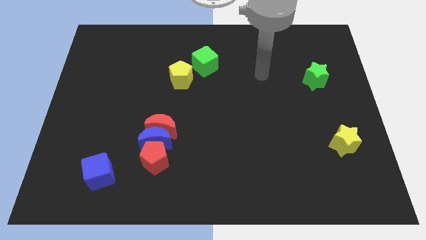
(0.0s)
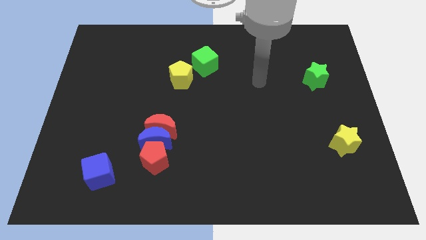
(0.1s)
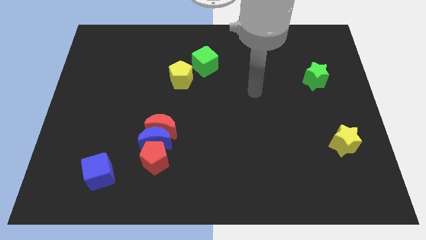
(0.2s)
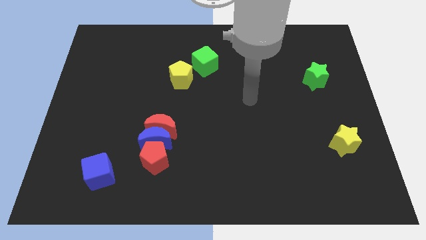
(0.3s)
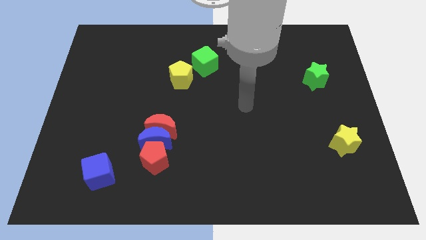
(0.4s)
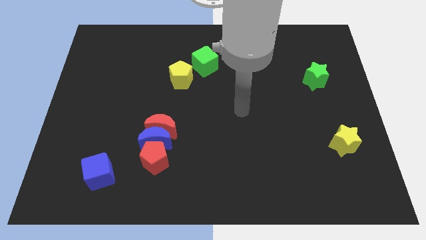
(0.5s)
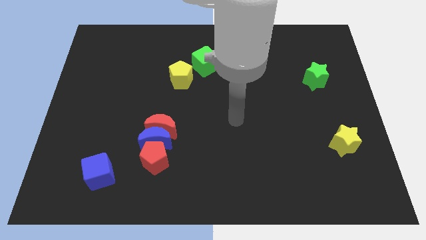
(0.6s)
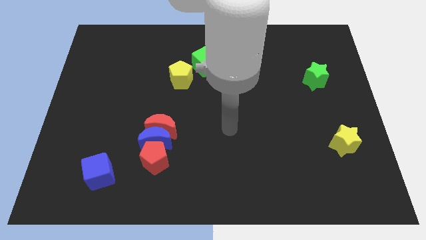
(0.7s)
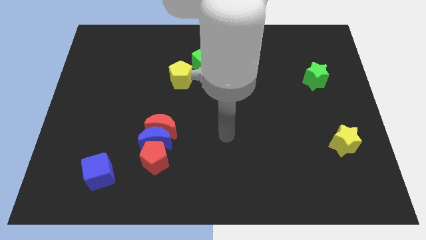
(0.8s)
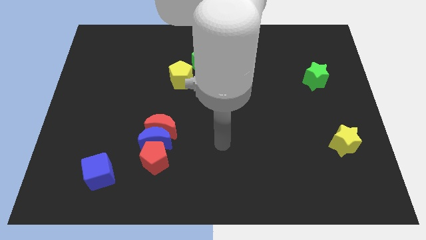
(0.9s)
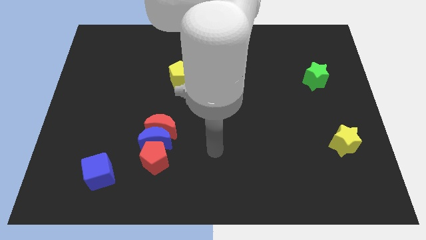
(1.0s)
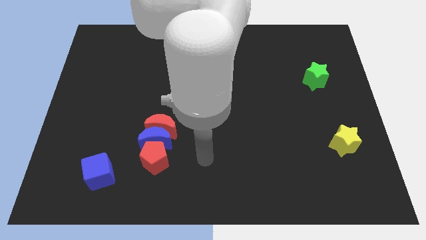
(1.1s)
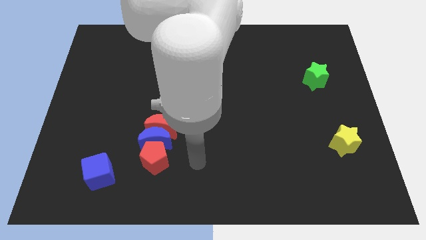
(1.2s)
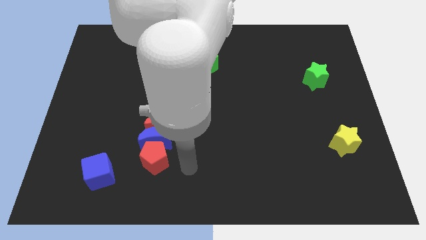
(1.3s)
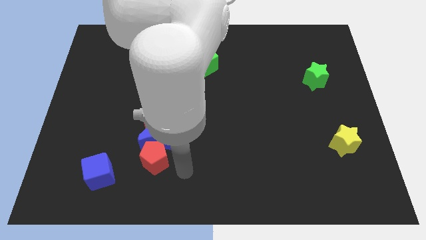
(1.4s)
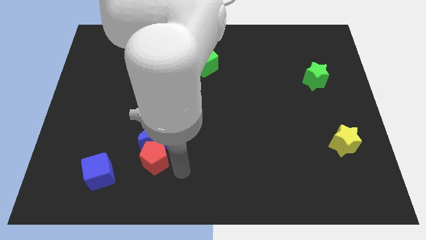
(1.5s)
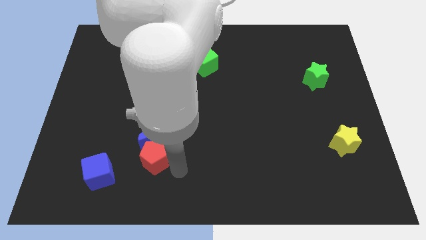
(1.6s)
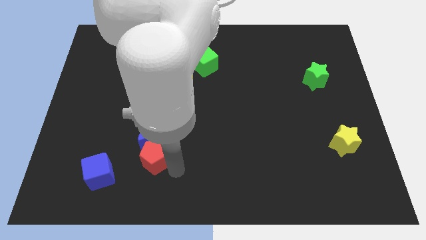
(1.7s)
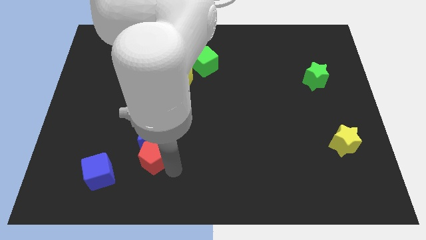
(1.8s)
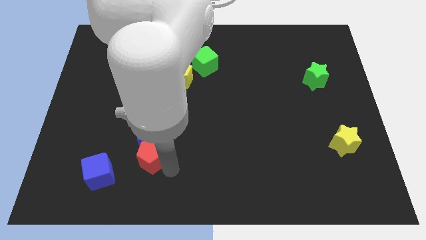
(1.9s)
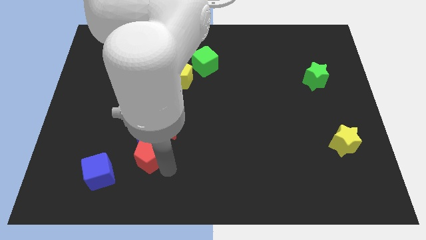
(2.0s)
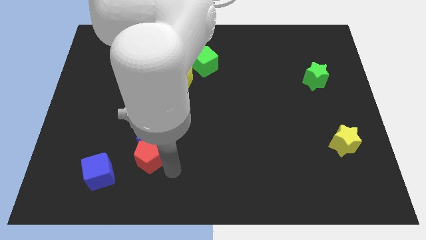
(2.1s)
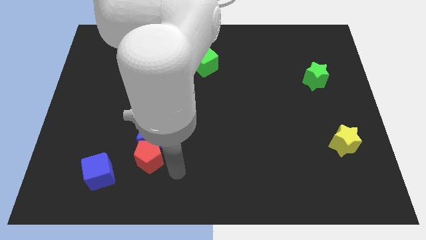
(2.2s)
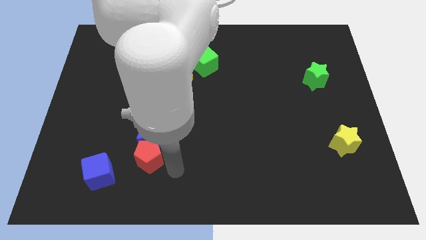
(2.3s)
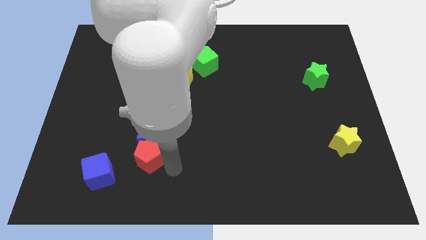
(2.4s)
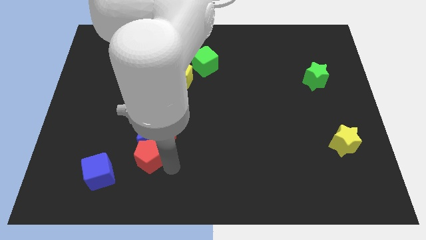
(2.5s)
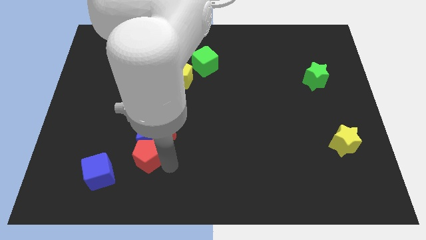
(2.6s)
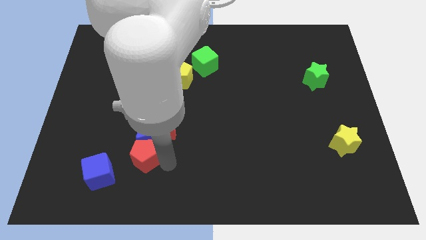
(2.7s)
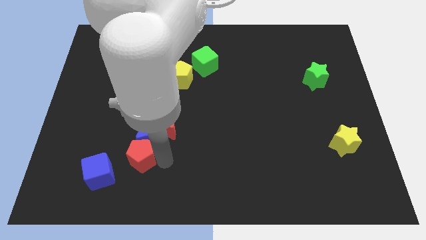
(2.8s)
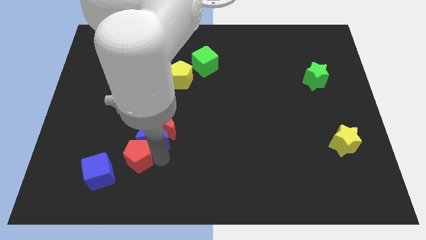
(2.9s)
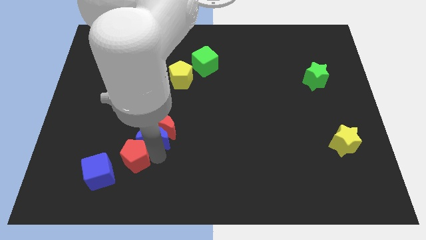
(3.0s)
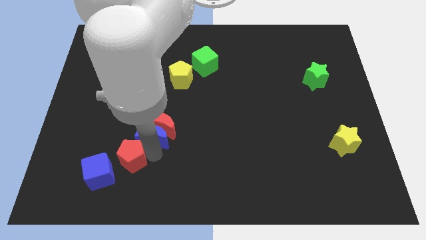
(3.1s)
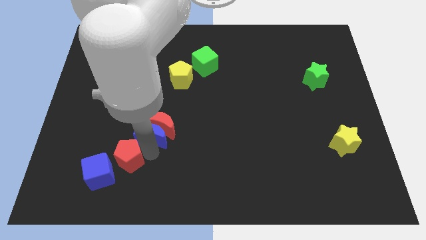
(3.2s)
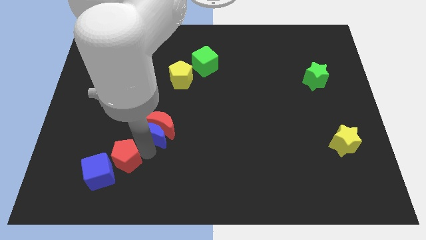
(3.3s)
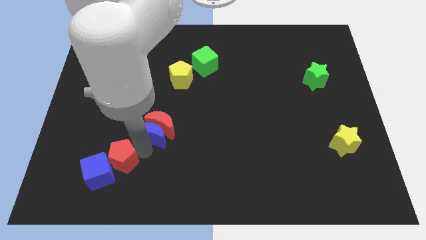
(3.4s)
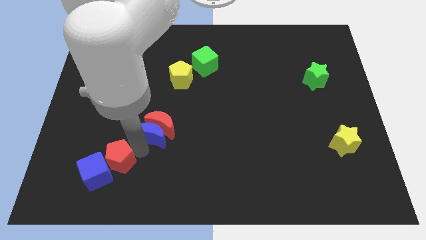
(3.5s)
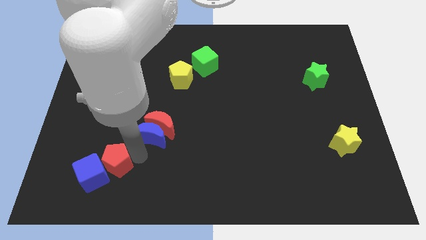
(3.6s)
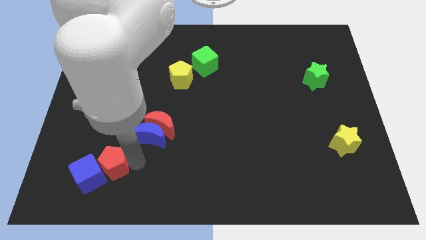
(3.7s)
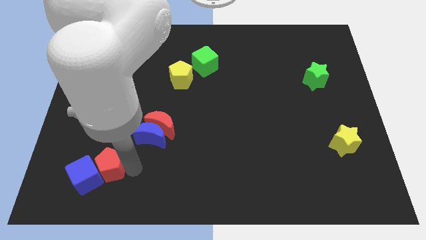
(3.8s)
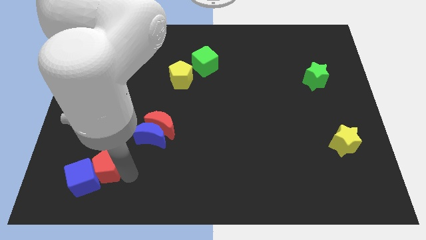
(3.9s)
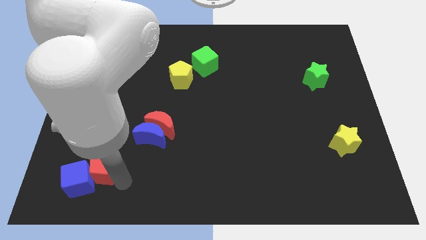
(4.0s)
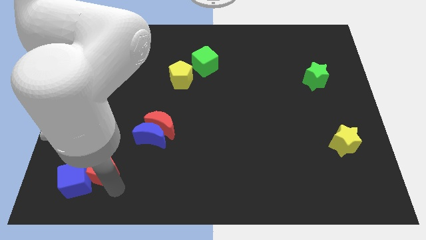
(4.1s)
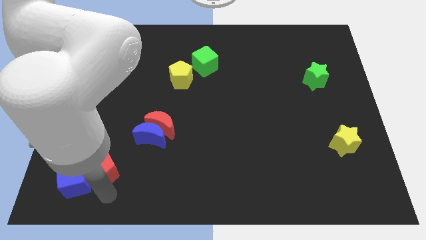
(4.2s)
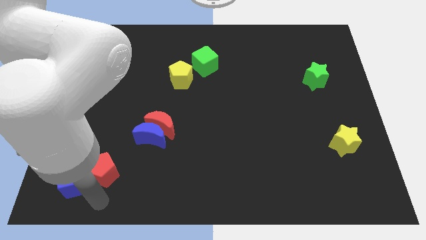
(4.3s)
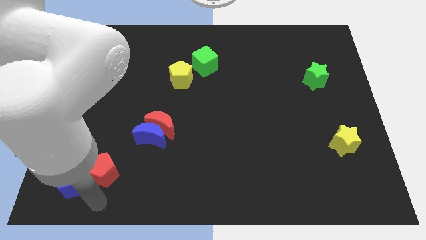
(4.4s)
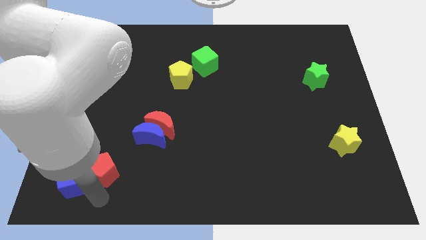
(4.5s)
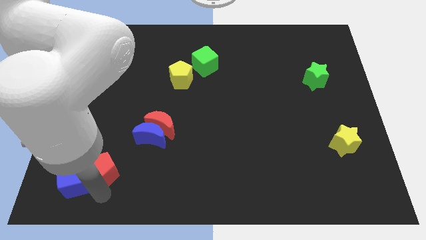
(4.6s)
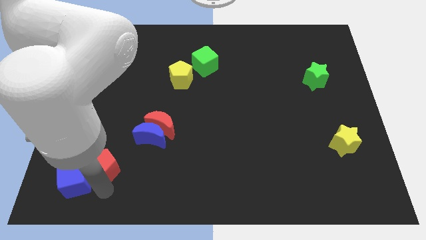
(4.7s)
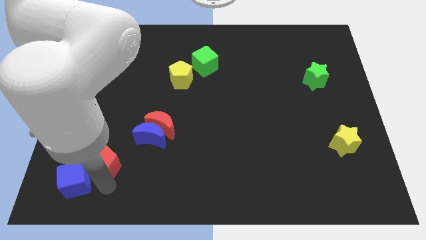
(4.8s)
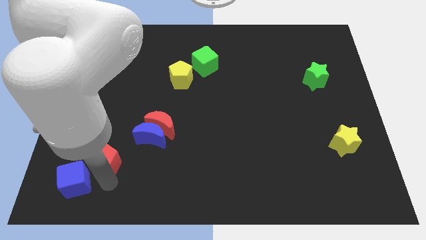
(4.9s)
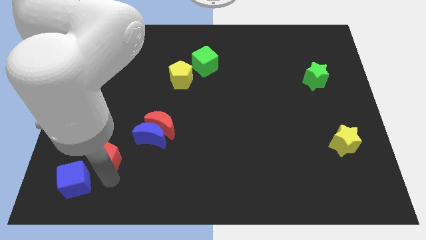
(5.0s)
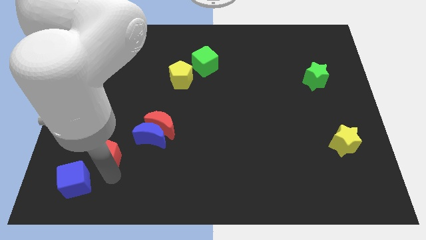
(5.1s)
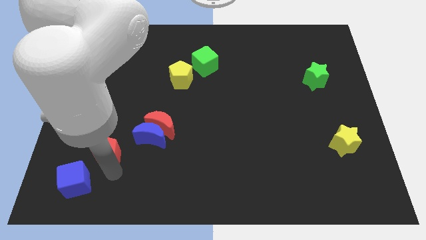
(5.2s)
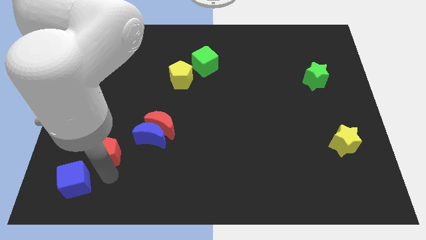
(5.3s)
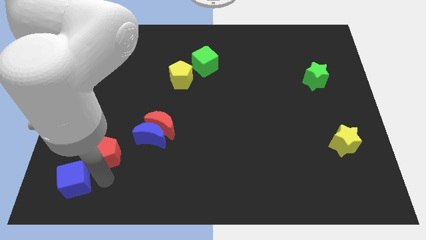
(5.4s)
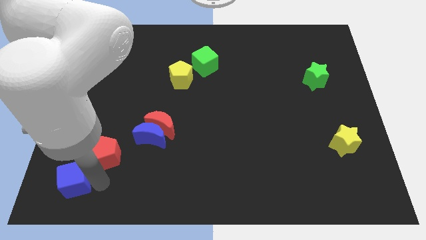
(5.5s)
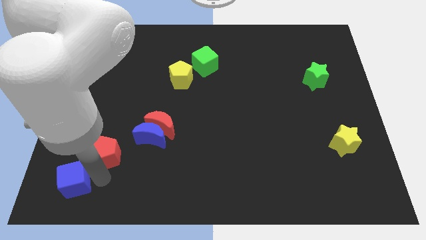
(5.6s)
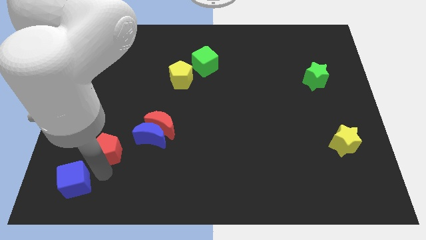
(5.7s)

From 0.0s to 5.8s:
slide the red pentagon diagonally upwards and left a little bit

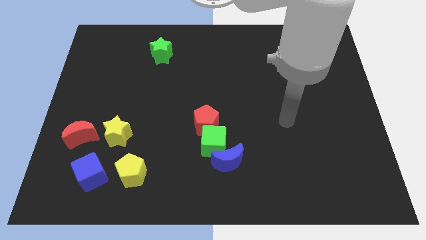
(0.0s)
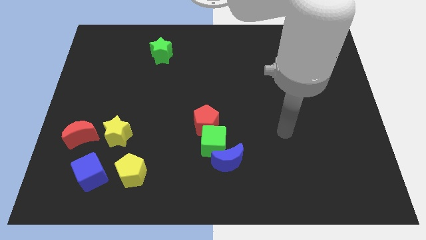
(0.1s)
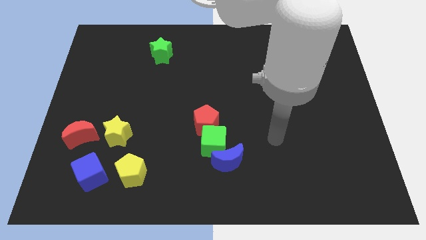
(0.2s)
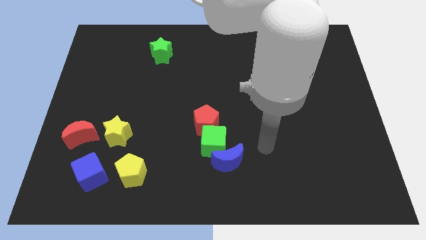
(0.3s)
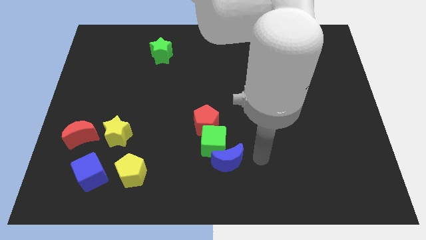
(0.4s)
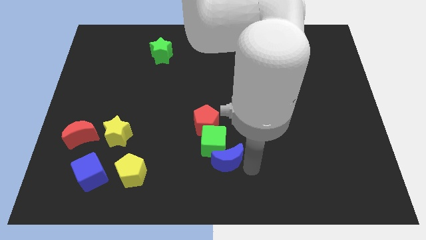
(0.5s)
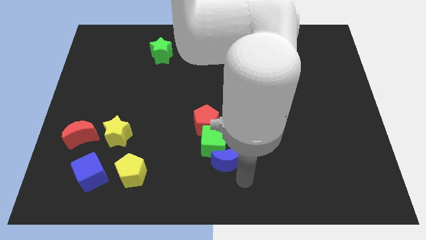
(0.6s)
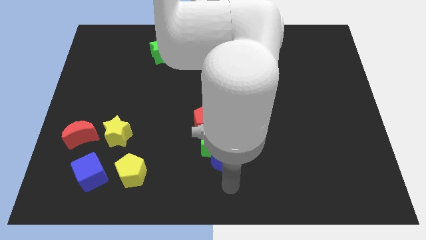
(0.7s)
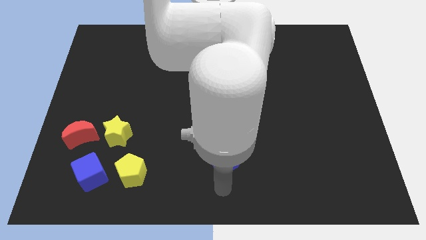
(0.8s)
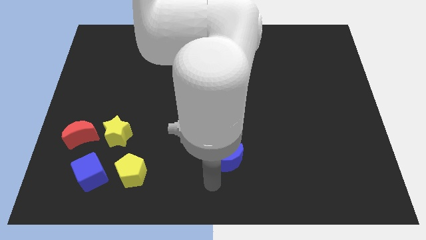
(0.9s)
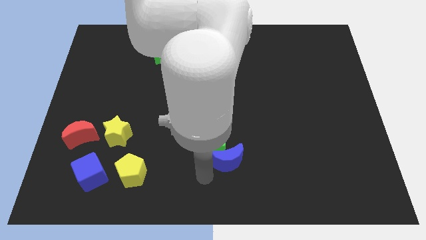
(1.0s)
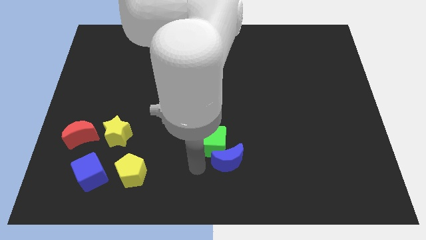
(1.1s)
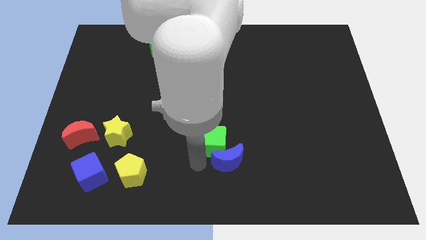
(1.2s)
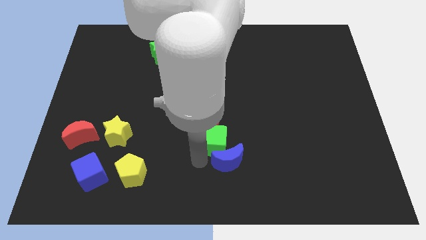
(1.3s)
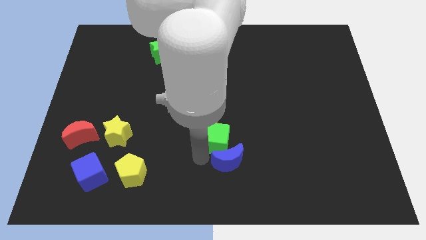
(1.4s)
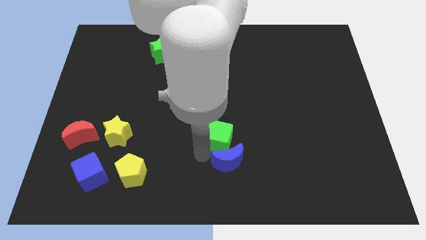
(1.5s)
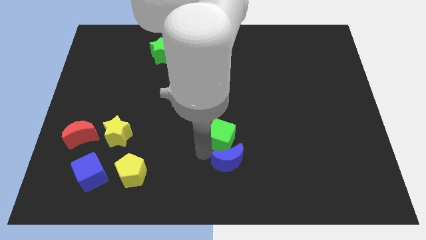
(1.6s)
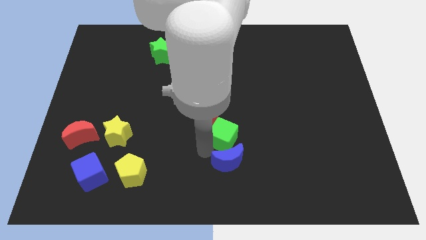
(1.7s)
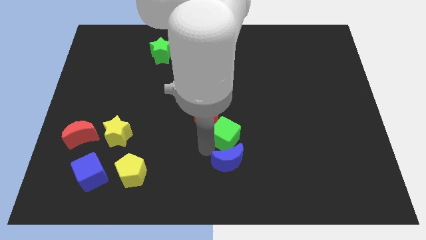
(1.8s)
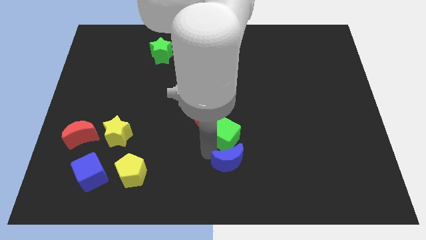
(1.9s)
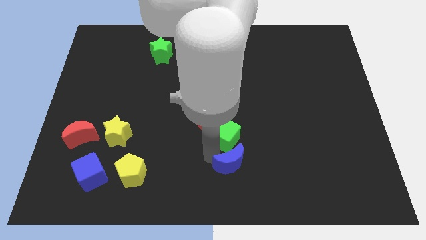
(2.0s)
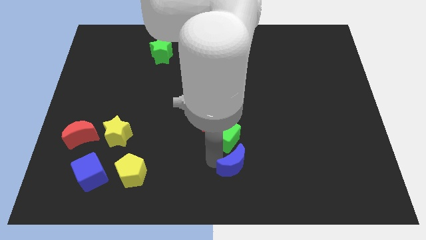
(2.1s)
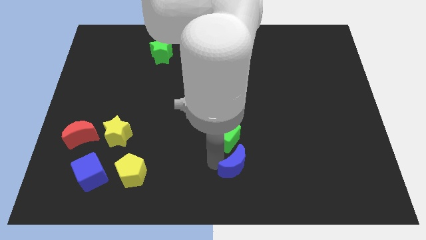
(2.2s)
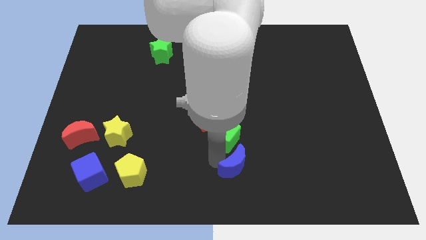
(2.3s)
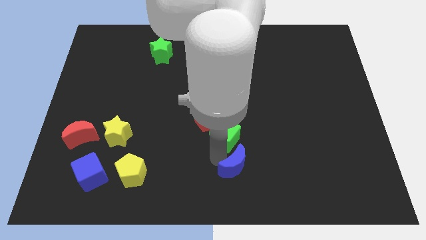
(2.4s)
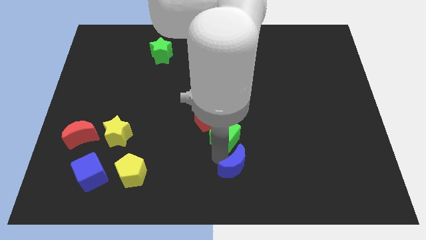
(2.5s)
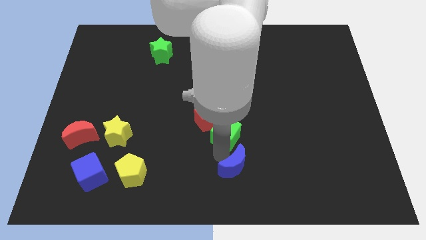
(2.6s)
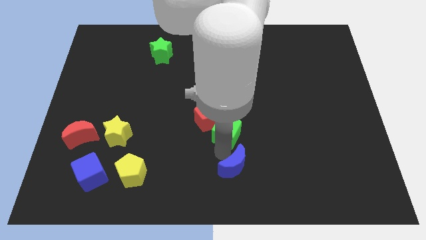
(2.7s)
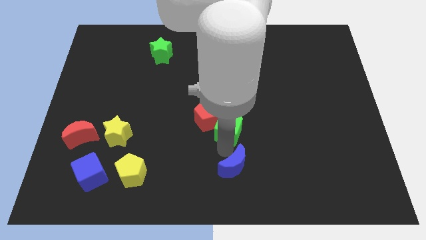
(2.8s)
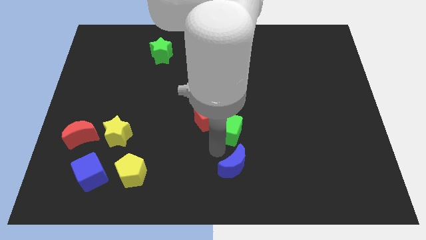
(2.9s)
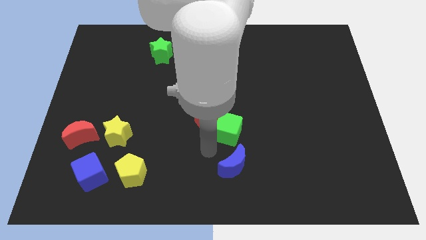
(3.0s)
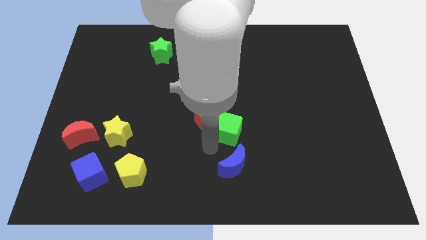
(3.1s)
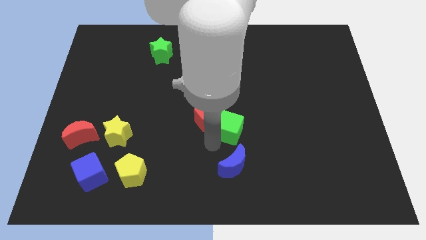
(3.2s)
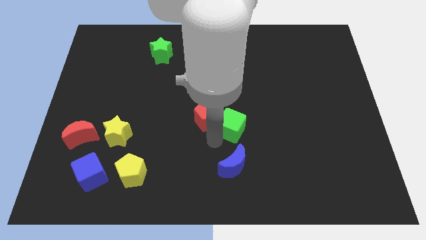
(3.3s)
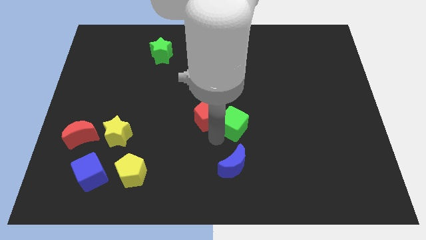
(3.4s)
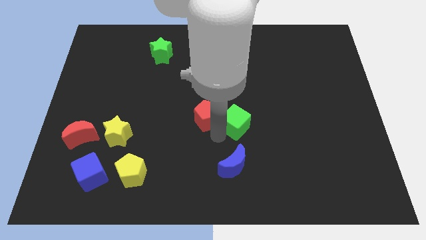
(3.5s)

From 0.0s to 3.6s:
slightly slide the green cube up and right diagonally
